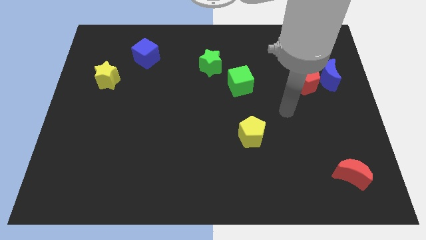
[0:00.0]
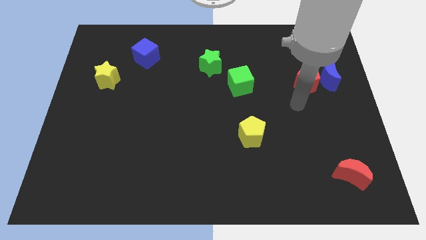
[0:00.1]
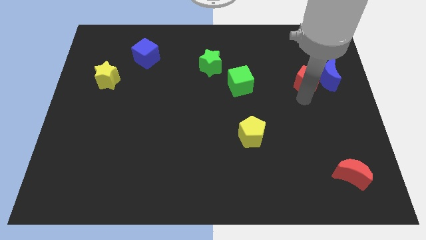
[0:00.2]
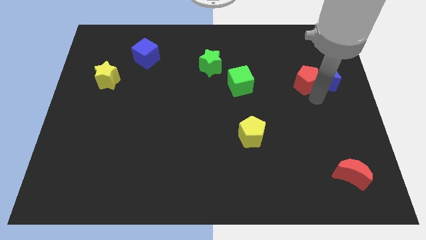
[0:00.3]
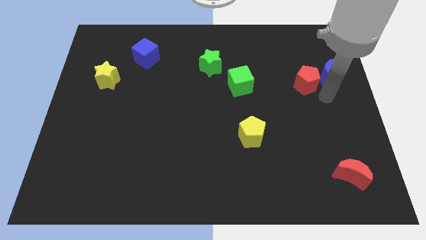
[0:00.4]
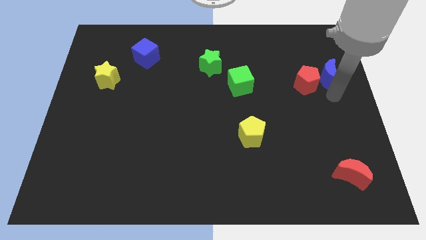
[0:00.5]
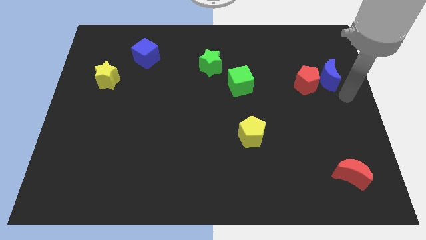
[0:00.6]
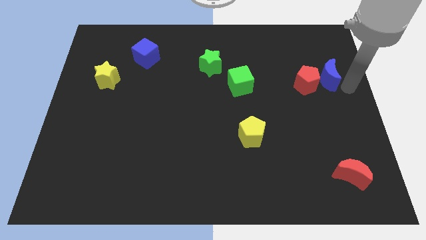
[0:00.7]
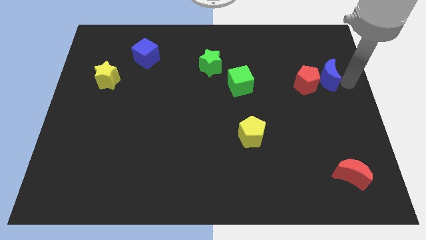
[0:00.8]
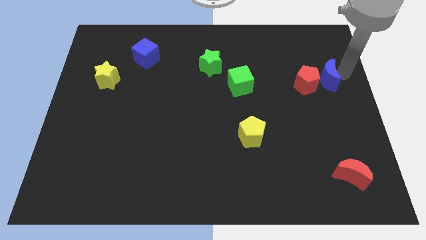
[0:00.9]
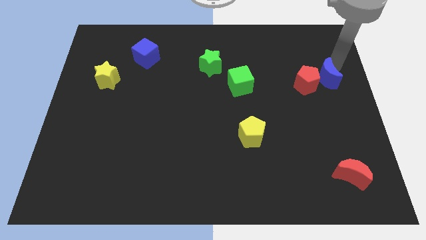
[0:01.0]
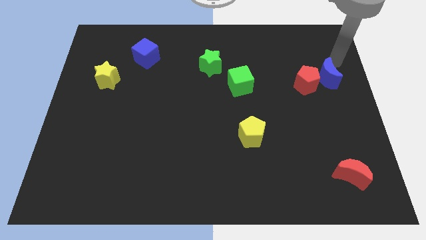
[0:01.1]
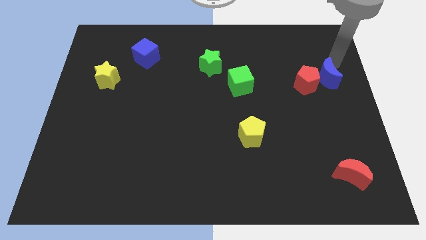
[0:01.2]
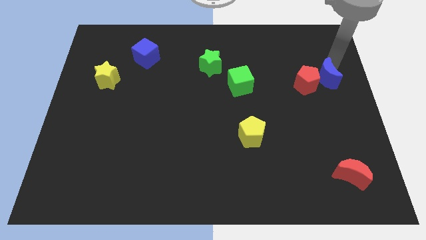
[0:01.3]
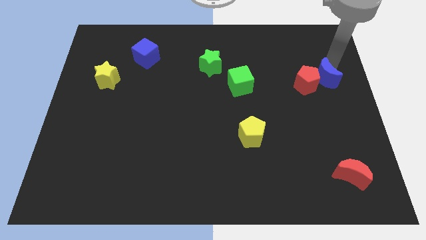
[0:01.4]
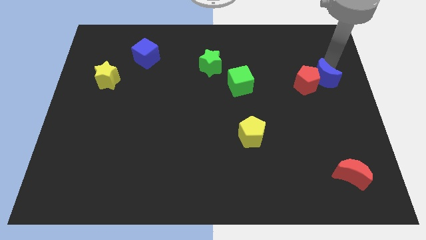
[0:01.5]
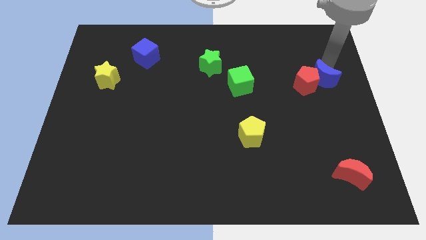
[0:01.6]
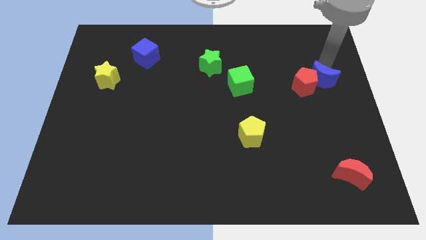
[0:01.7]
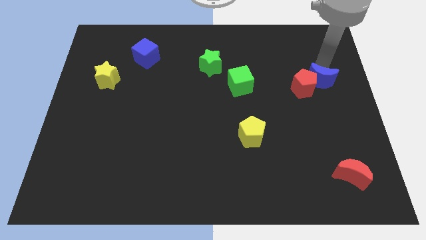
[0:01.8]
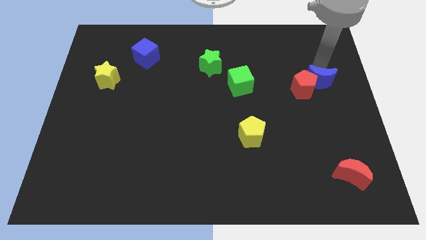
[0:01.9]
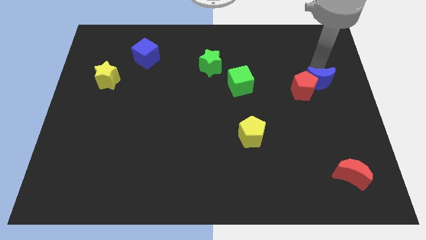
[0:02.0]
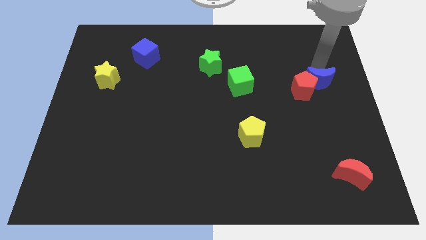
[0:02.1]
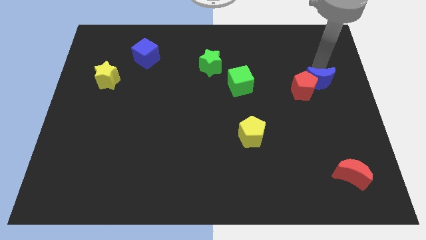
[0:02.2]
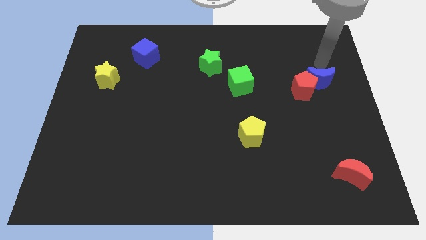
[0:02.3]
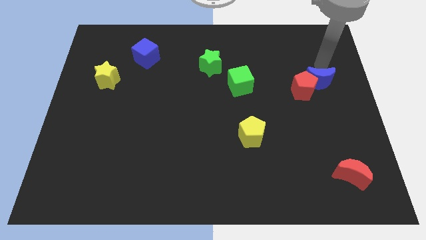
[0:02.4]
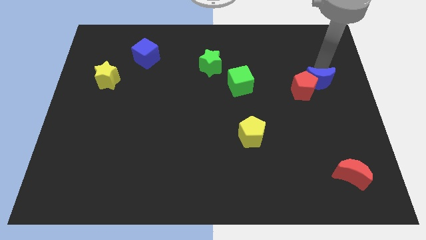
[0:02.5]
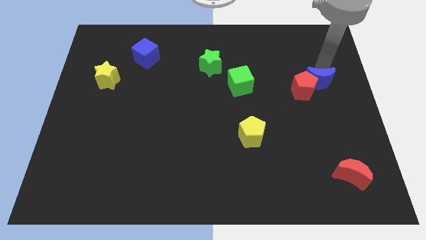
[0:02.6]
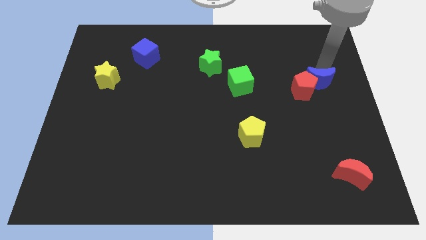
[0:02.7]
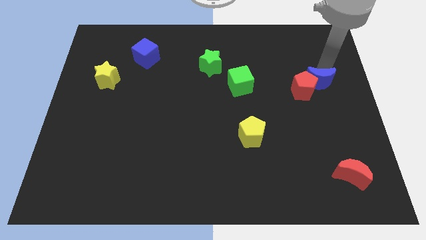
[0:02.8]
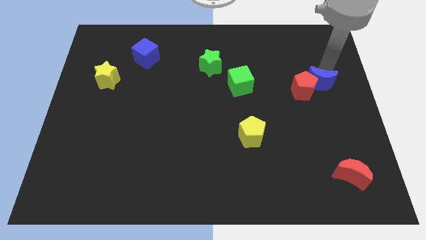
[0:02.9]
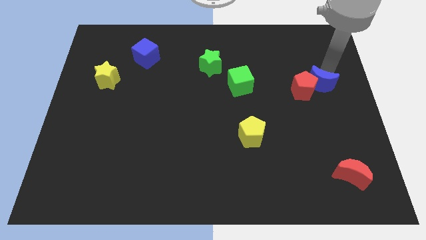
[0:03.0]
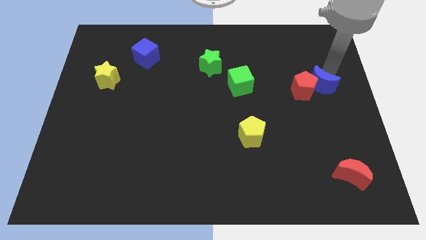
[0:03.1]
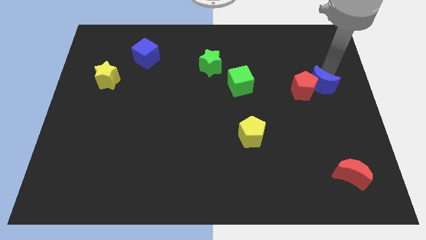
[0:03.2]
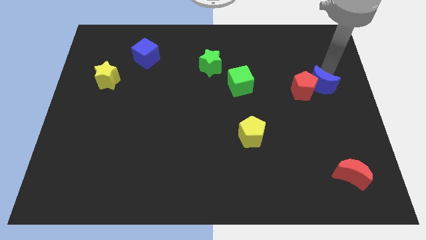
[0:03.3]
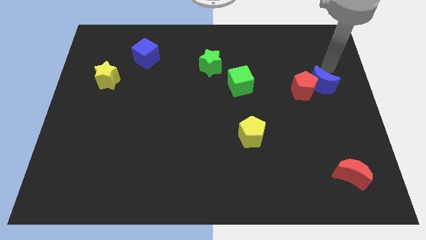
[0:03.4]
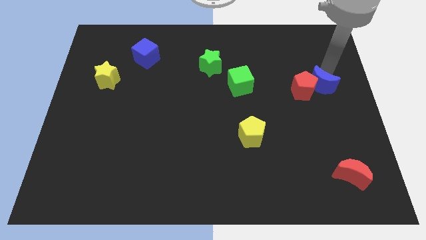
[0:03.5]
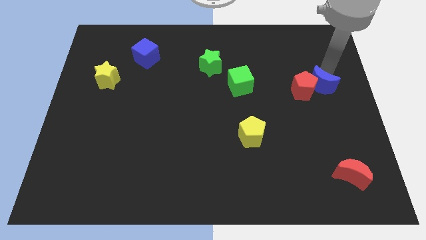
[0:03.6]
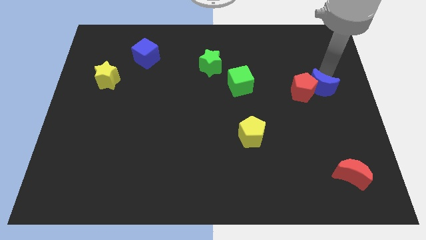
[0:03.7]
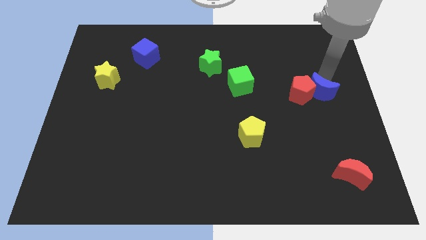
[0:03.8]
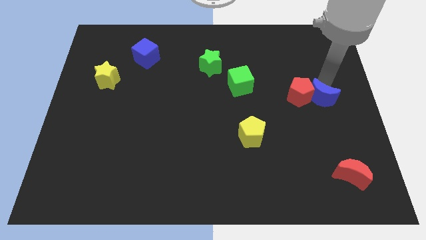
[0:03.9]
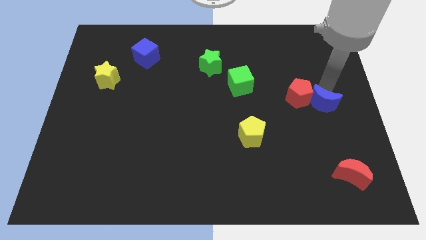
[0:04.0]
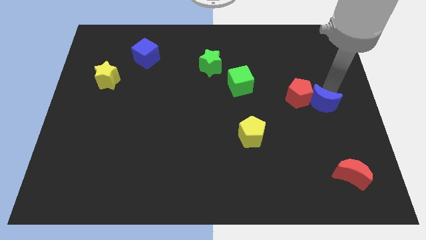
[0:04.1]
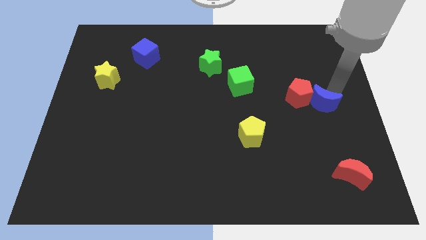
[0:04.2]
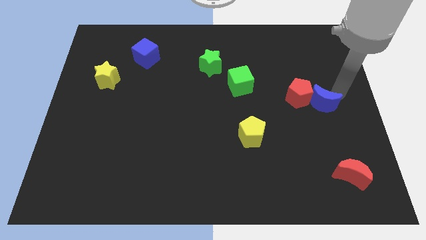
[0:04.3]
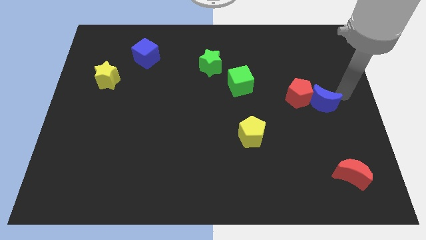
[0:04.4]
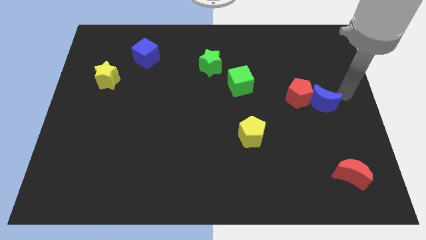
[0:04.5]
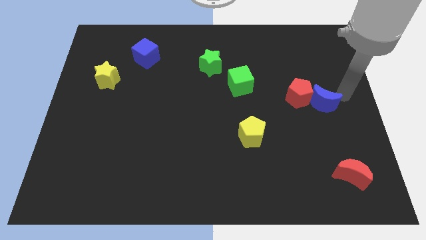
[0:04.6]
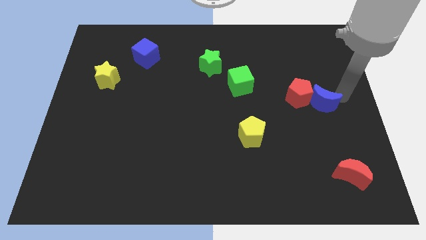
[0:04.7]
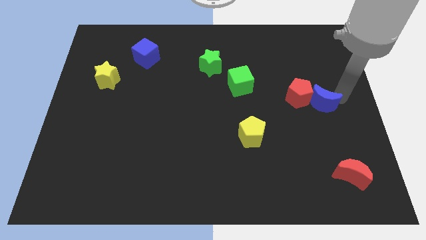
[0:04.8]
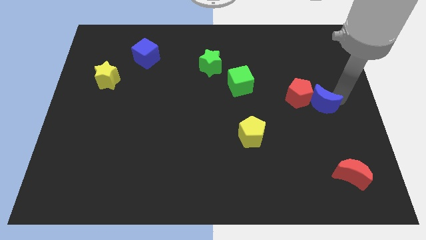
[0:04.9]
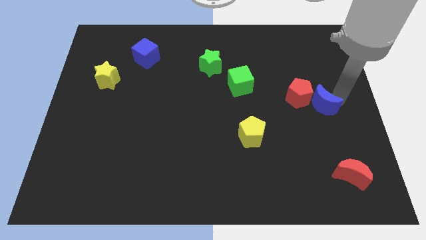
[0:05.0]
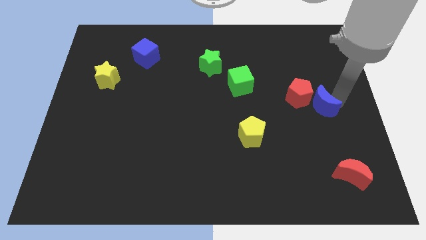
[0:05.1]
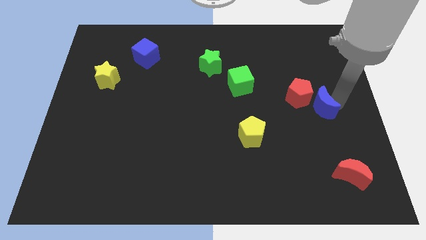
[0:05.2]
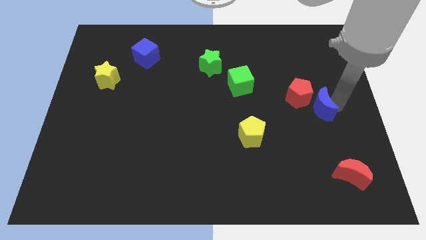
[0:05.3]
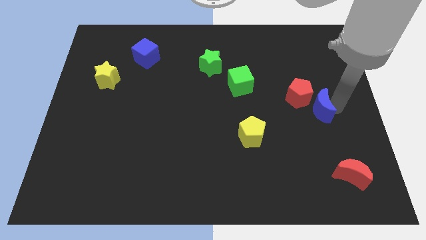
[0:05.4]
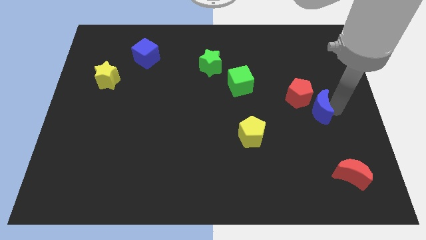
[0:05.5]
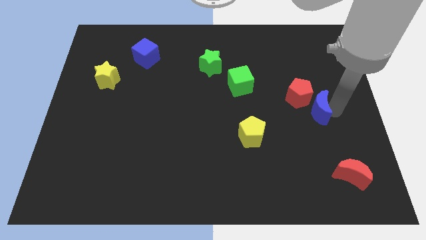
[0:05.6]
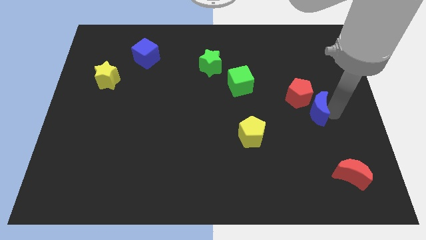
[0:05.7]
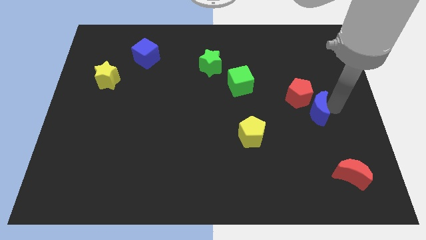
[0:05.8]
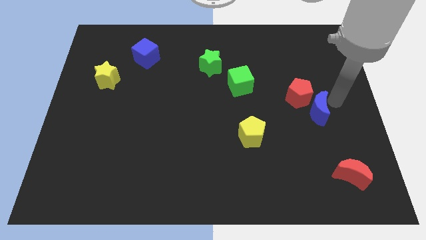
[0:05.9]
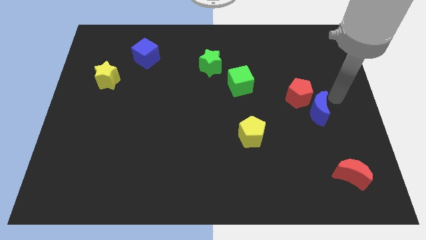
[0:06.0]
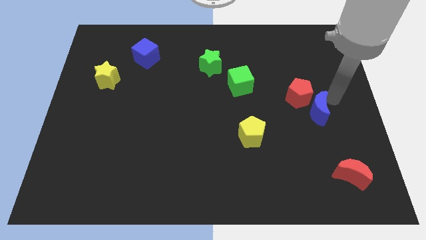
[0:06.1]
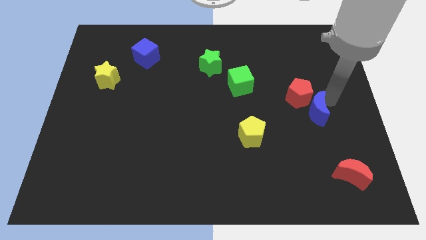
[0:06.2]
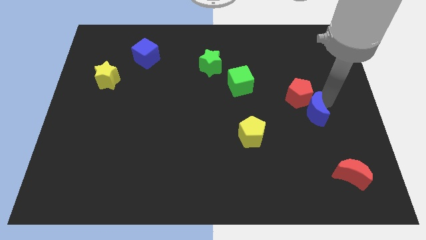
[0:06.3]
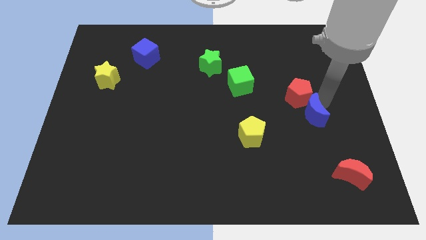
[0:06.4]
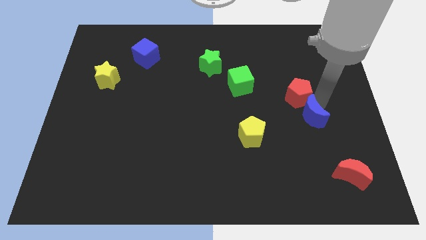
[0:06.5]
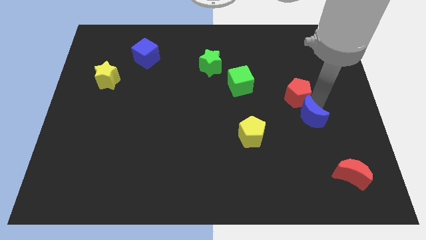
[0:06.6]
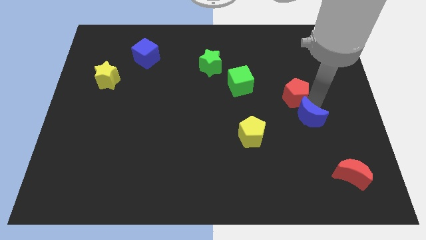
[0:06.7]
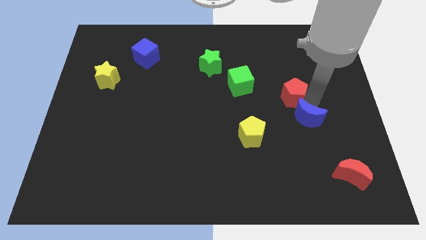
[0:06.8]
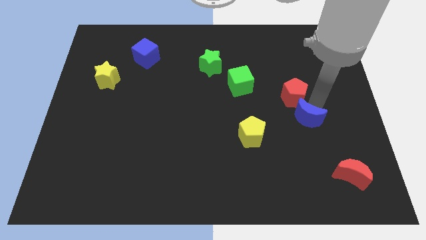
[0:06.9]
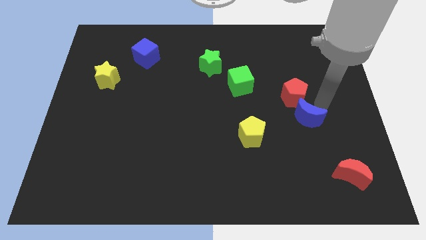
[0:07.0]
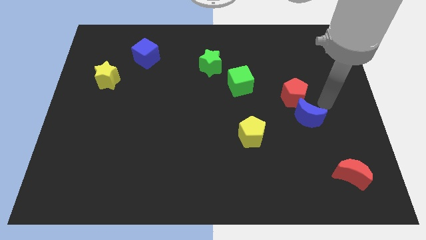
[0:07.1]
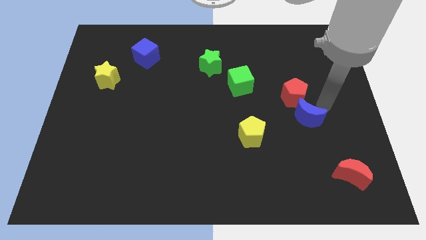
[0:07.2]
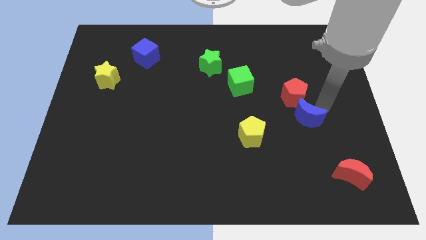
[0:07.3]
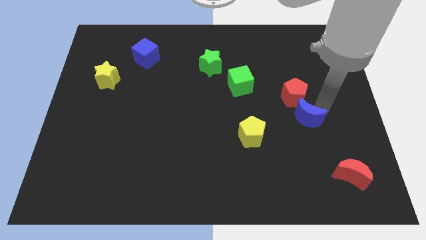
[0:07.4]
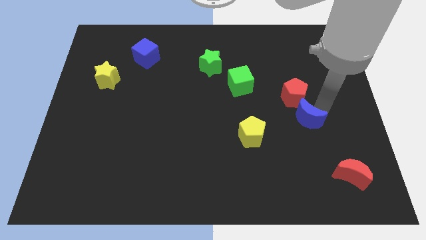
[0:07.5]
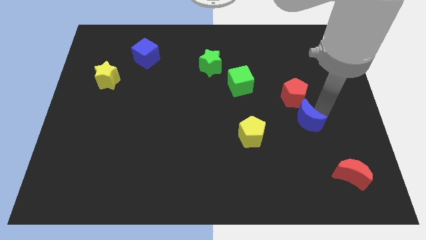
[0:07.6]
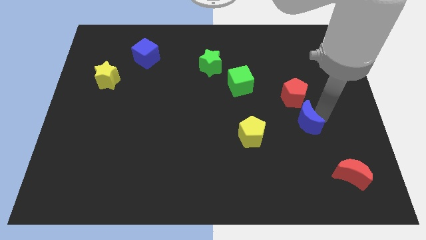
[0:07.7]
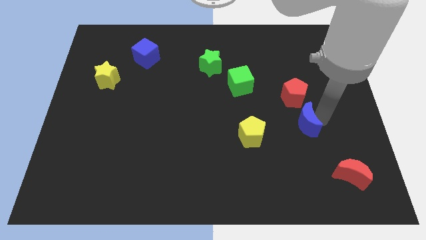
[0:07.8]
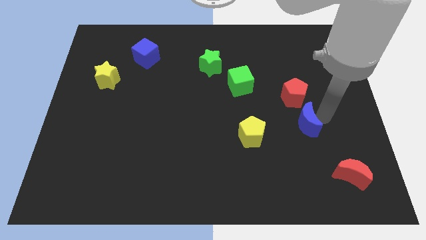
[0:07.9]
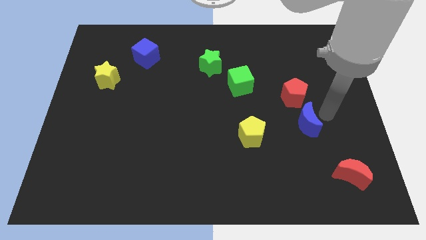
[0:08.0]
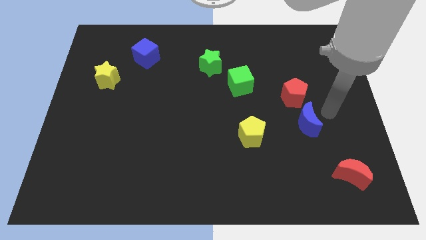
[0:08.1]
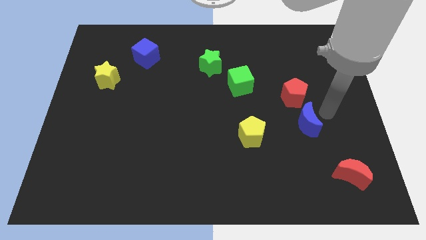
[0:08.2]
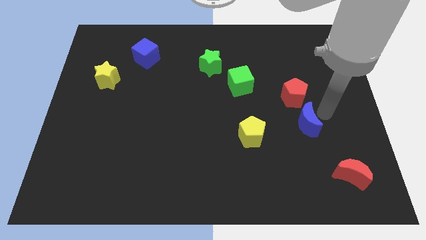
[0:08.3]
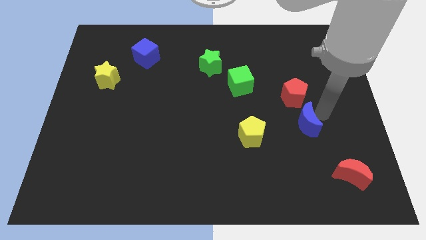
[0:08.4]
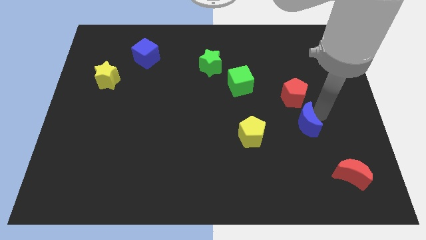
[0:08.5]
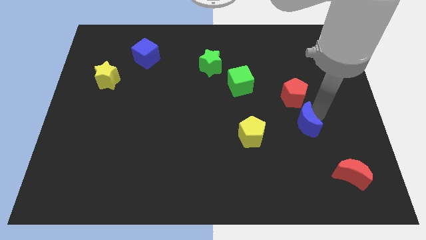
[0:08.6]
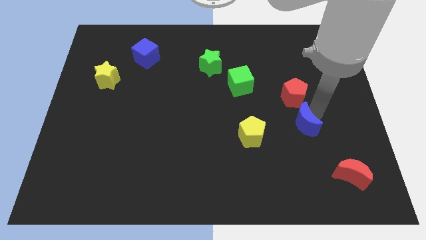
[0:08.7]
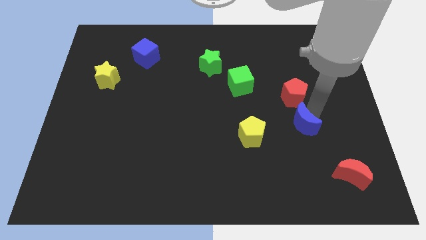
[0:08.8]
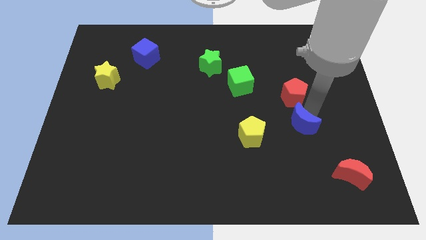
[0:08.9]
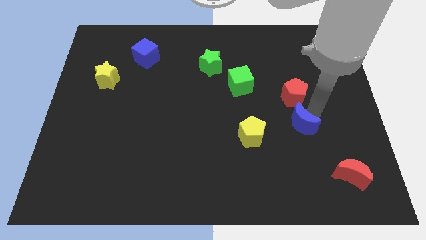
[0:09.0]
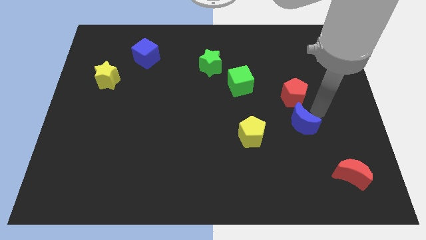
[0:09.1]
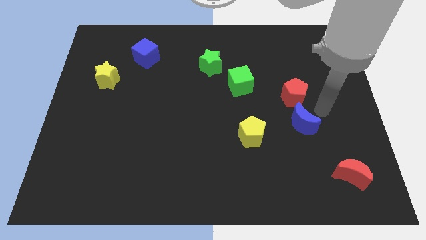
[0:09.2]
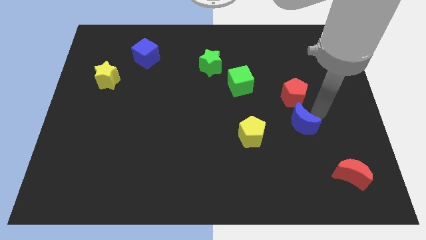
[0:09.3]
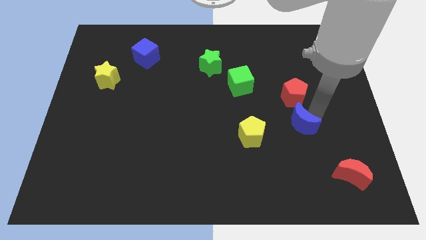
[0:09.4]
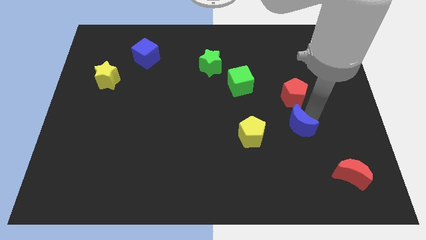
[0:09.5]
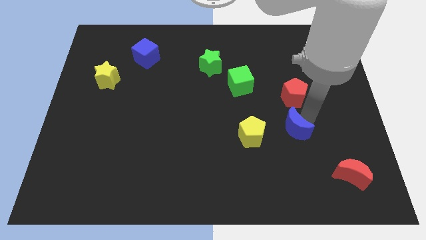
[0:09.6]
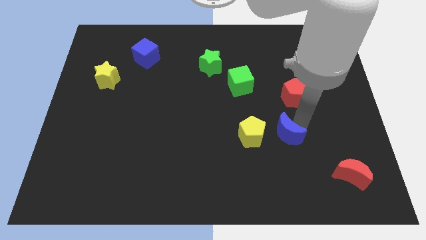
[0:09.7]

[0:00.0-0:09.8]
move the blue moon diagonally downwards and to the left
